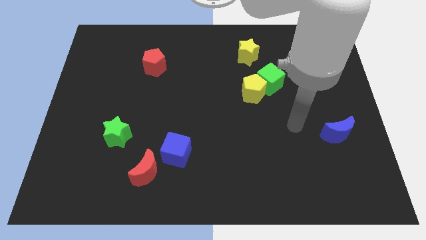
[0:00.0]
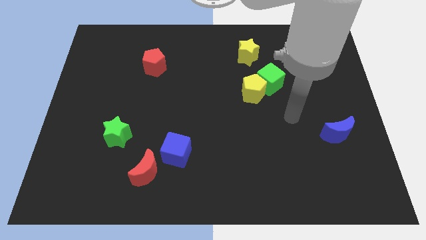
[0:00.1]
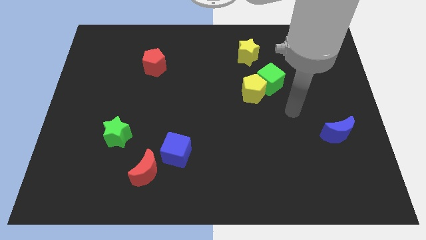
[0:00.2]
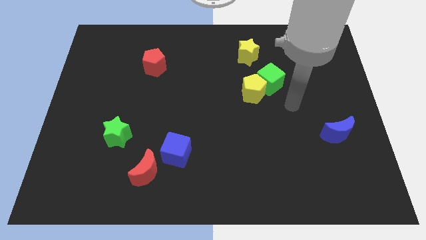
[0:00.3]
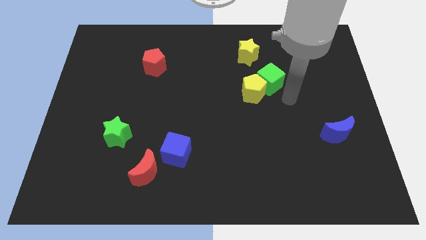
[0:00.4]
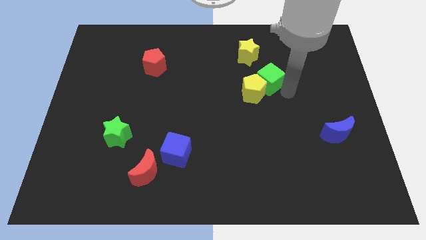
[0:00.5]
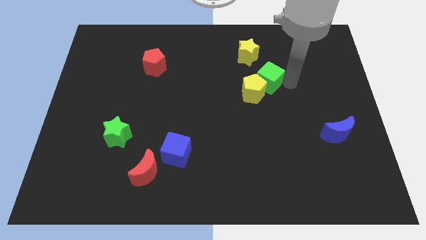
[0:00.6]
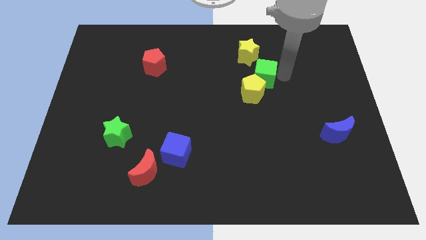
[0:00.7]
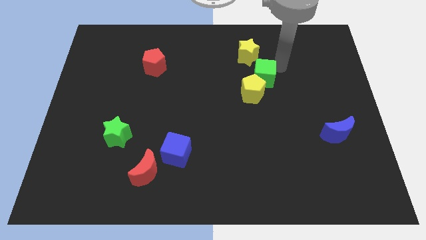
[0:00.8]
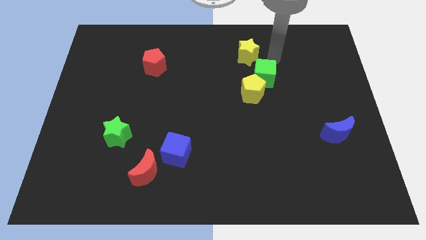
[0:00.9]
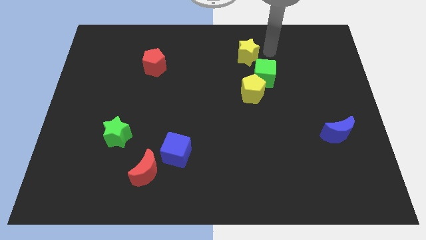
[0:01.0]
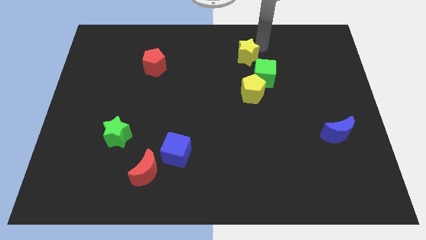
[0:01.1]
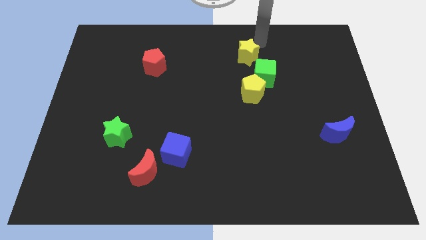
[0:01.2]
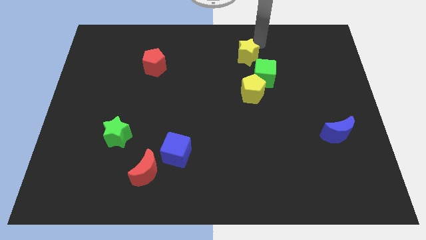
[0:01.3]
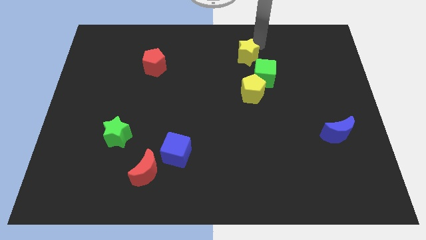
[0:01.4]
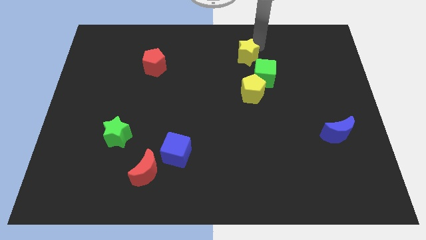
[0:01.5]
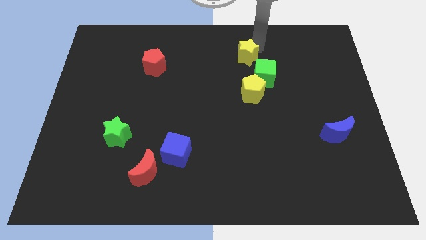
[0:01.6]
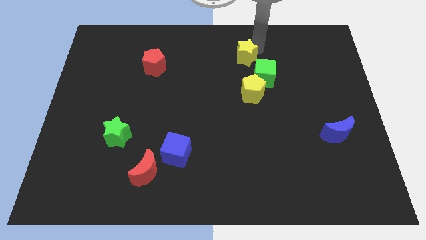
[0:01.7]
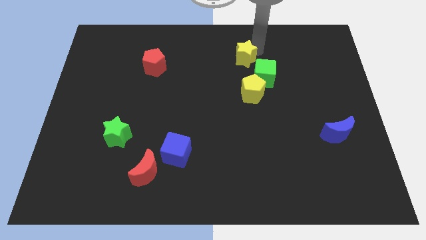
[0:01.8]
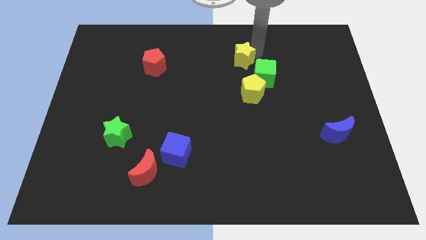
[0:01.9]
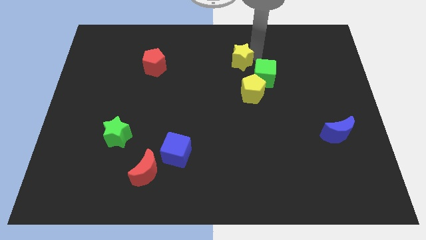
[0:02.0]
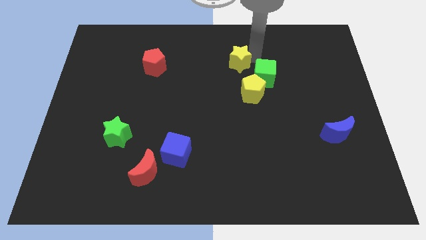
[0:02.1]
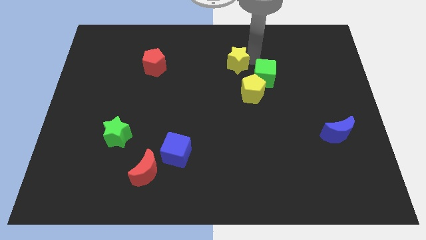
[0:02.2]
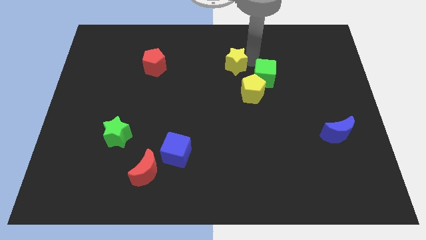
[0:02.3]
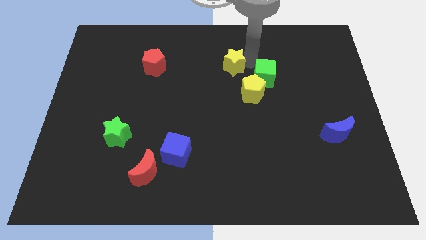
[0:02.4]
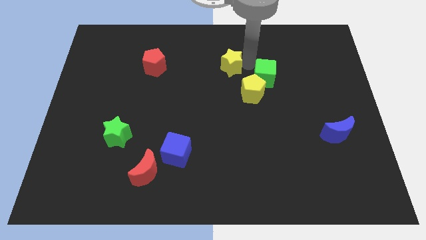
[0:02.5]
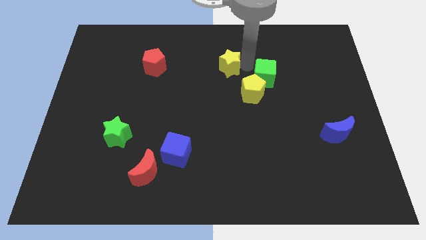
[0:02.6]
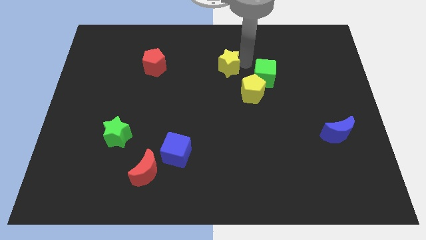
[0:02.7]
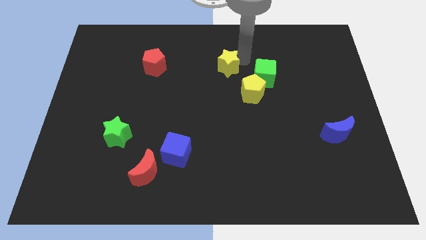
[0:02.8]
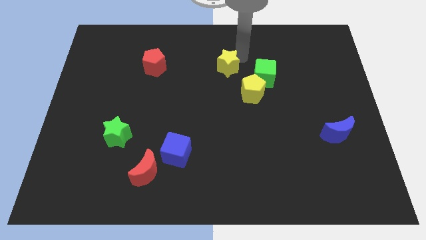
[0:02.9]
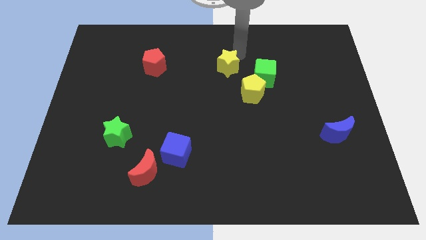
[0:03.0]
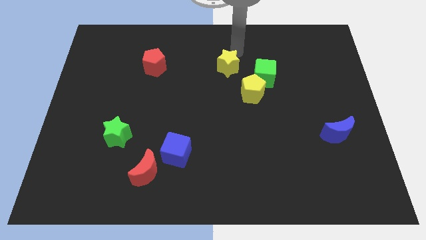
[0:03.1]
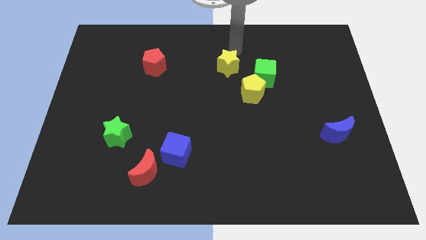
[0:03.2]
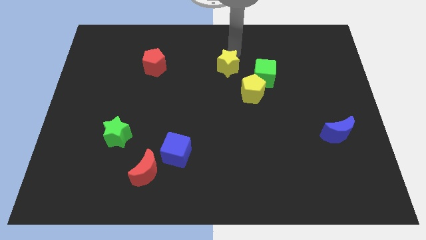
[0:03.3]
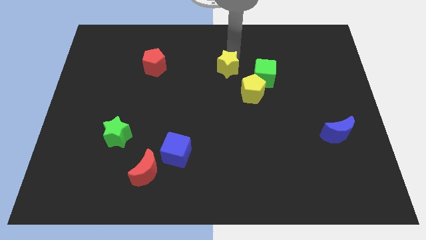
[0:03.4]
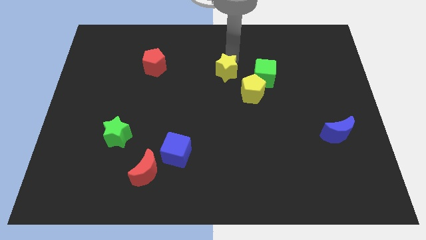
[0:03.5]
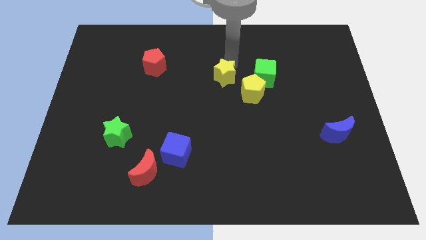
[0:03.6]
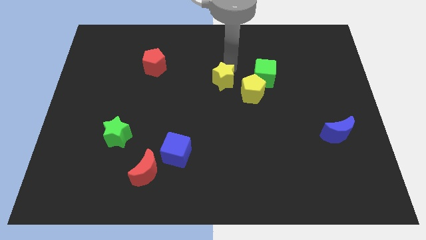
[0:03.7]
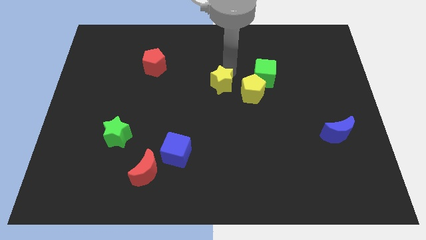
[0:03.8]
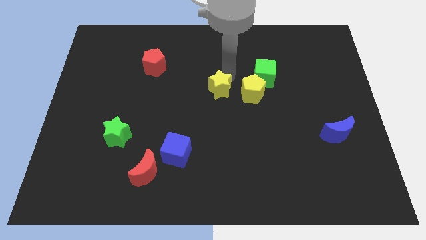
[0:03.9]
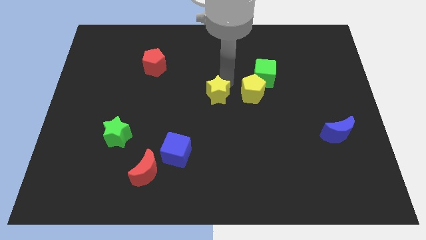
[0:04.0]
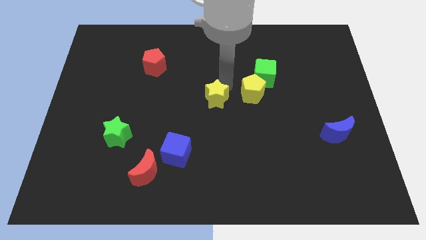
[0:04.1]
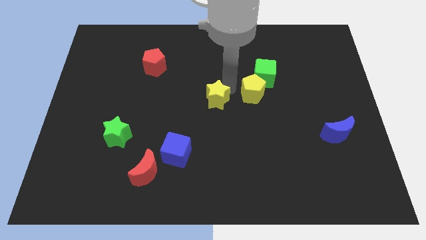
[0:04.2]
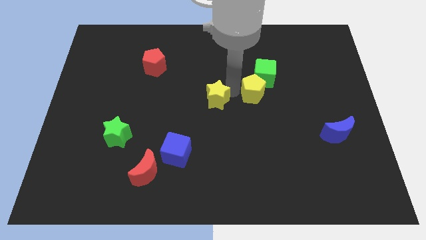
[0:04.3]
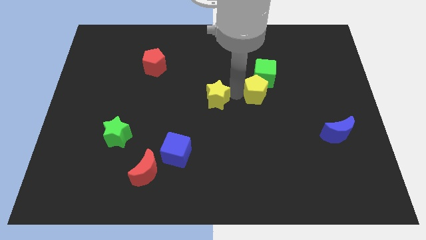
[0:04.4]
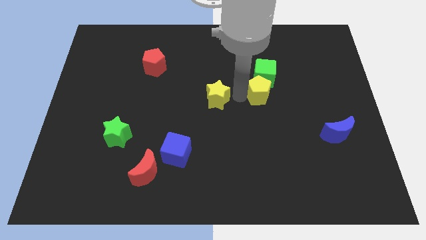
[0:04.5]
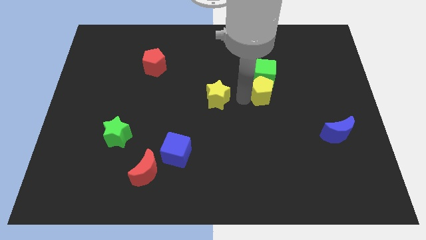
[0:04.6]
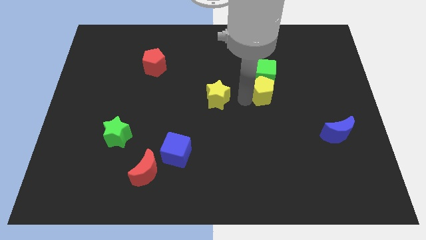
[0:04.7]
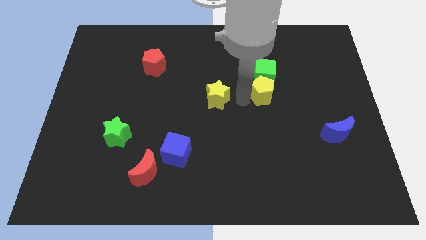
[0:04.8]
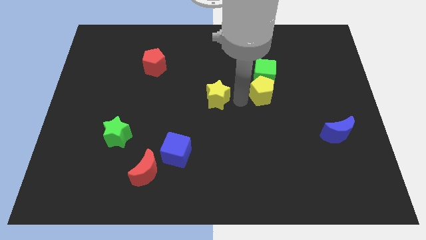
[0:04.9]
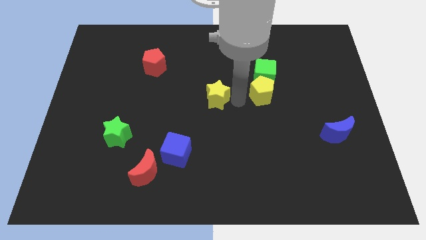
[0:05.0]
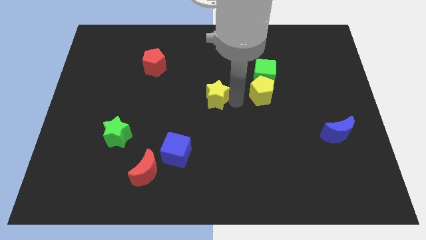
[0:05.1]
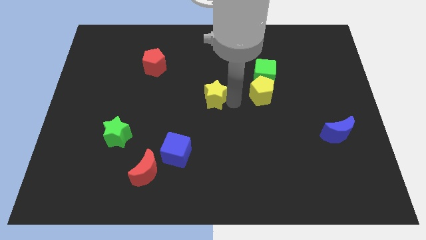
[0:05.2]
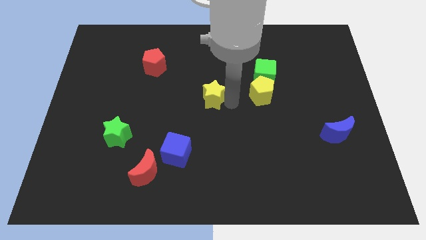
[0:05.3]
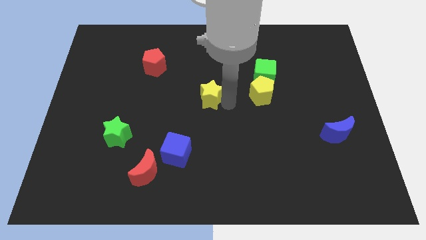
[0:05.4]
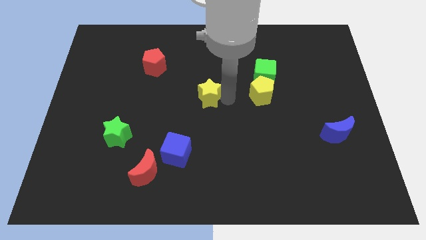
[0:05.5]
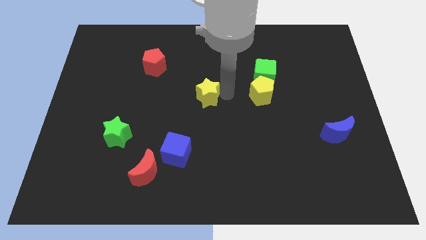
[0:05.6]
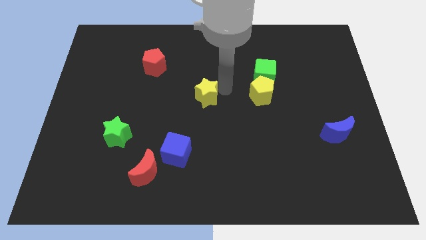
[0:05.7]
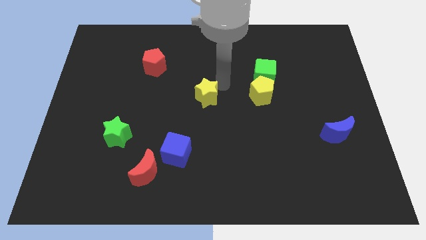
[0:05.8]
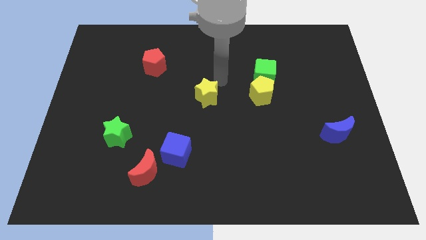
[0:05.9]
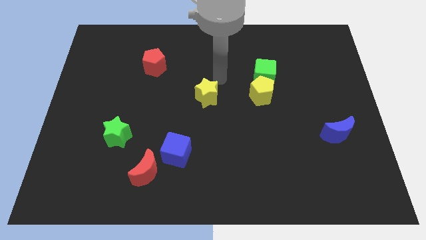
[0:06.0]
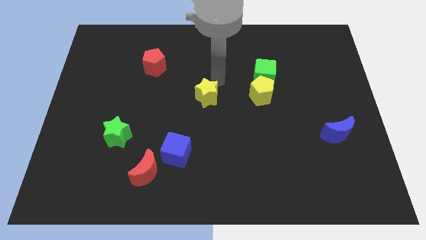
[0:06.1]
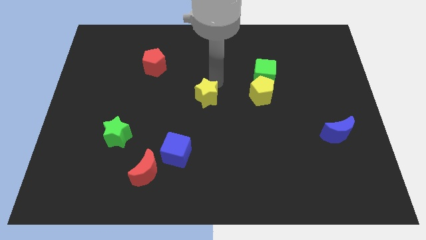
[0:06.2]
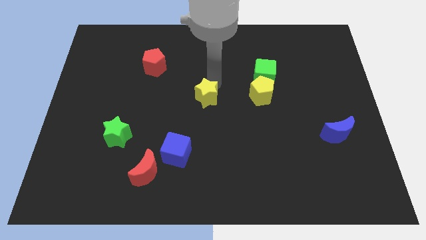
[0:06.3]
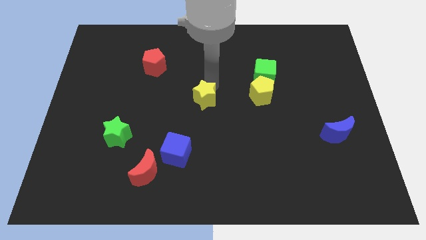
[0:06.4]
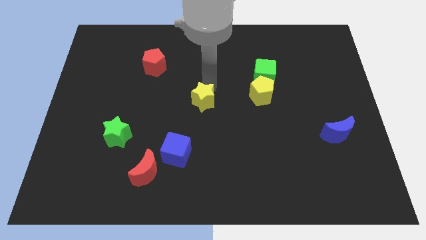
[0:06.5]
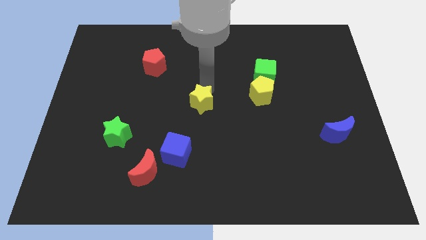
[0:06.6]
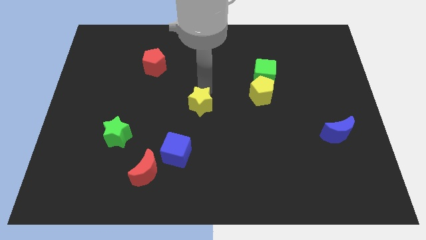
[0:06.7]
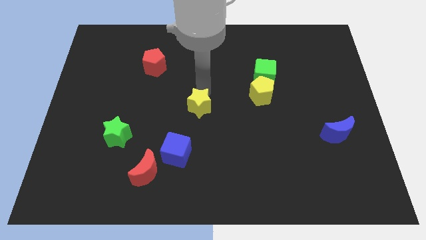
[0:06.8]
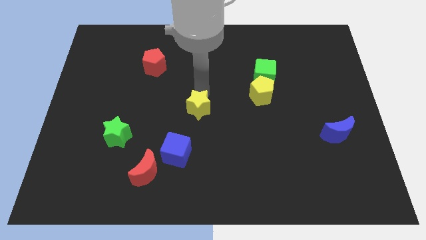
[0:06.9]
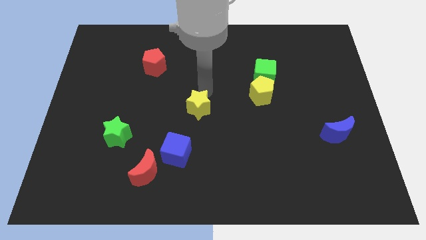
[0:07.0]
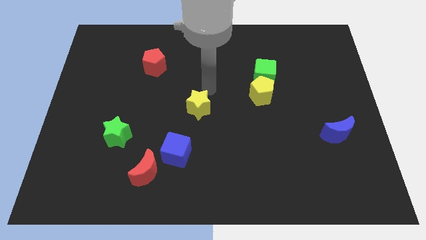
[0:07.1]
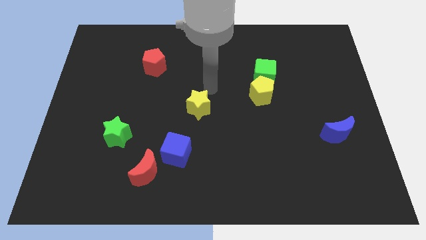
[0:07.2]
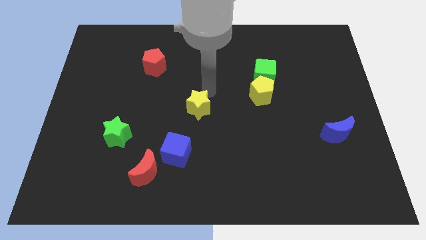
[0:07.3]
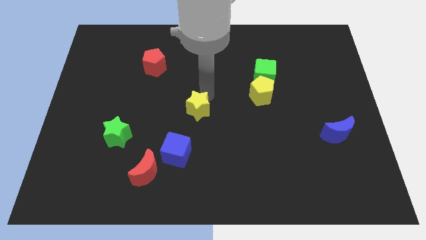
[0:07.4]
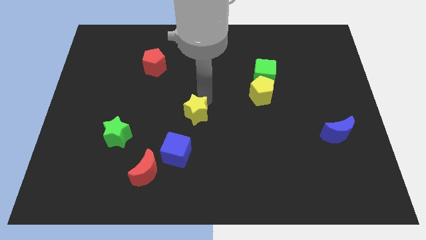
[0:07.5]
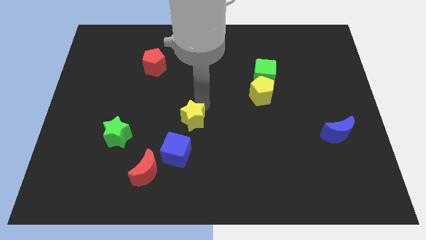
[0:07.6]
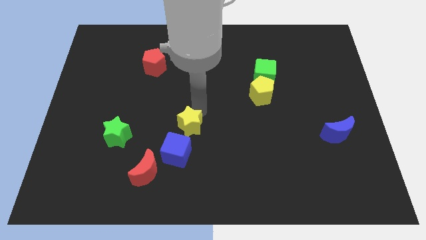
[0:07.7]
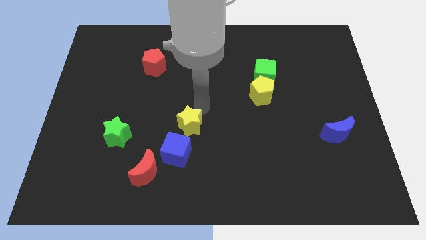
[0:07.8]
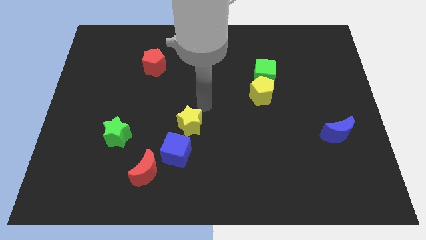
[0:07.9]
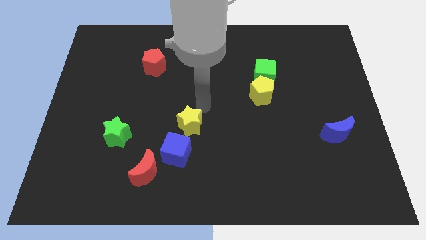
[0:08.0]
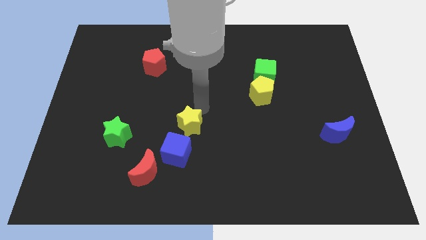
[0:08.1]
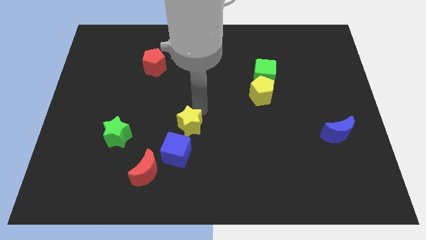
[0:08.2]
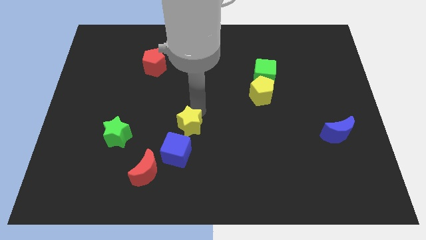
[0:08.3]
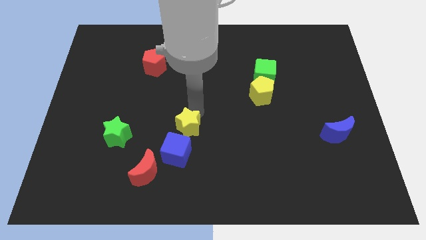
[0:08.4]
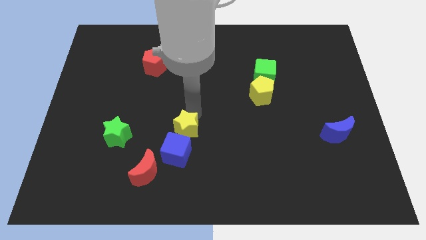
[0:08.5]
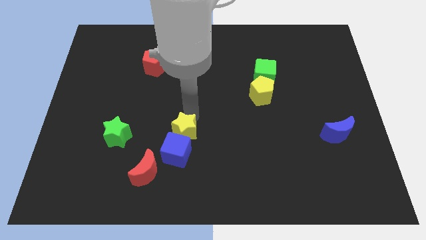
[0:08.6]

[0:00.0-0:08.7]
move the yellow star close to the blue cube
